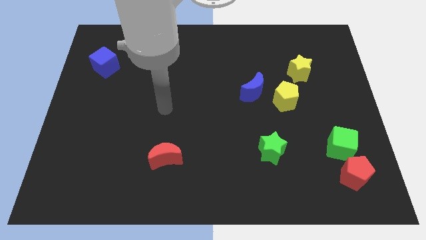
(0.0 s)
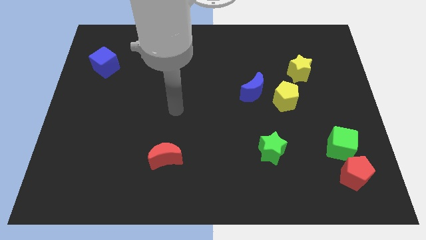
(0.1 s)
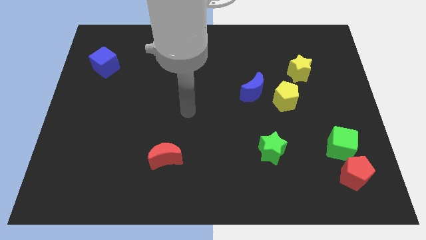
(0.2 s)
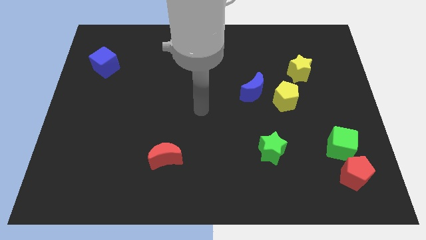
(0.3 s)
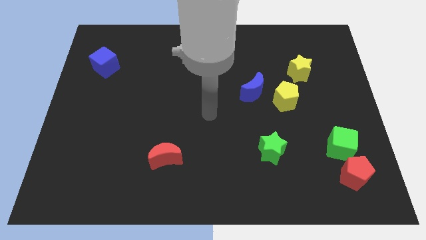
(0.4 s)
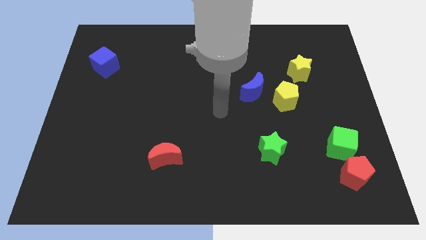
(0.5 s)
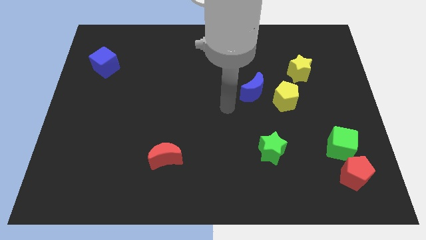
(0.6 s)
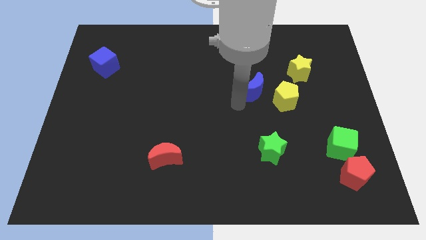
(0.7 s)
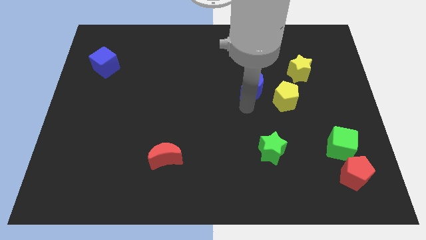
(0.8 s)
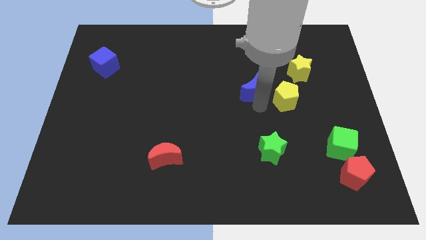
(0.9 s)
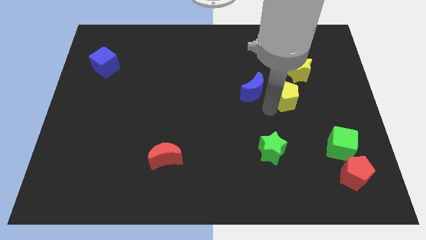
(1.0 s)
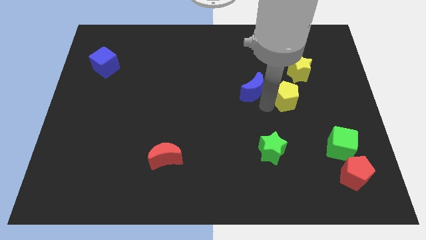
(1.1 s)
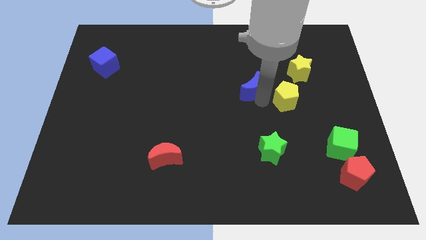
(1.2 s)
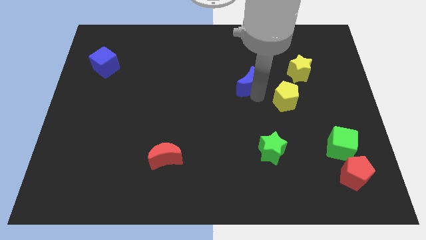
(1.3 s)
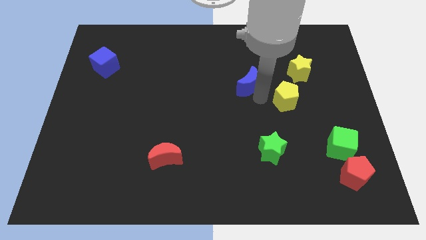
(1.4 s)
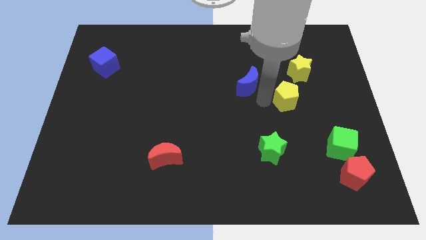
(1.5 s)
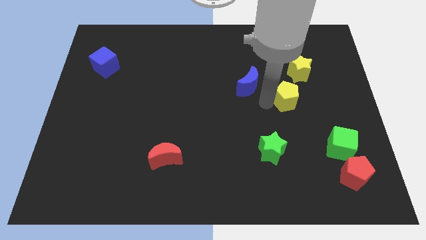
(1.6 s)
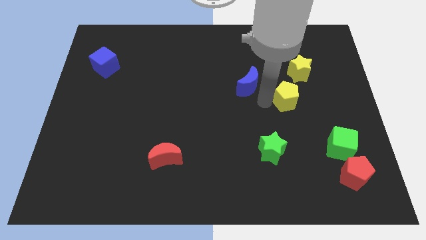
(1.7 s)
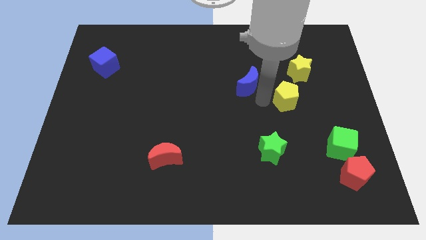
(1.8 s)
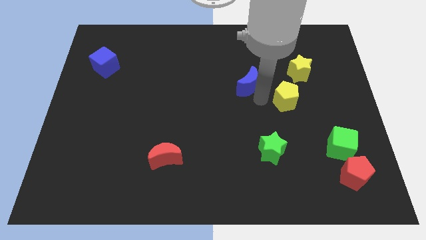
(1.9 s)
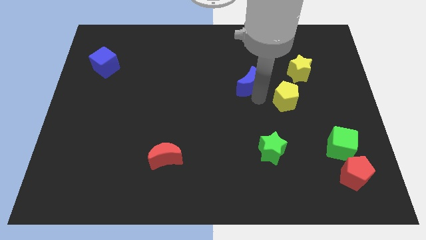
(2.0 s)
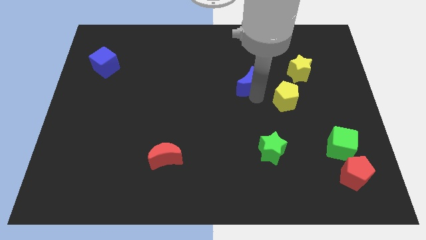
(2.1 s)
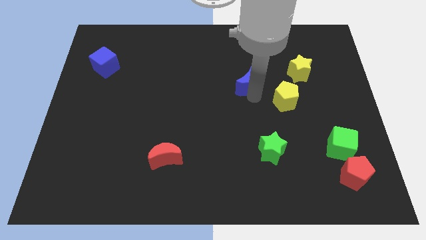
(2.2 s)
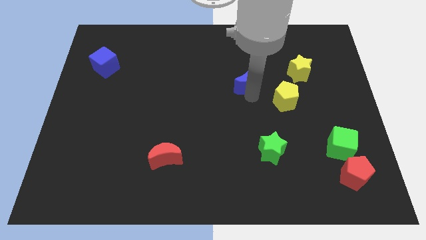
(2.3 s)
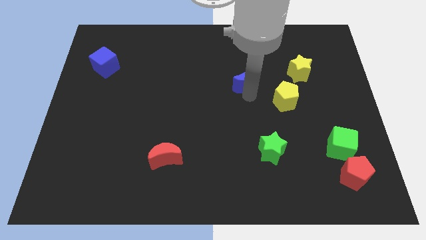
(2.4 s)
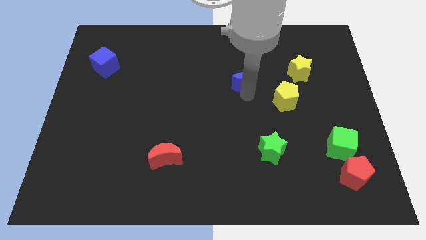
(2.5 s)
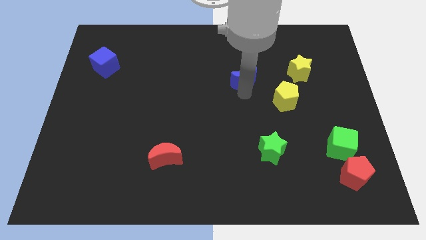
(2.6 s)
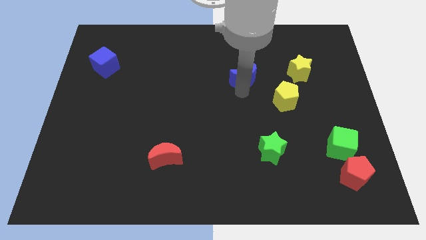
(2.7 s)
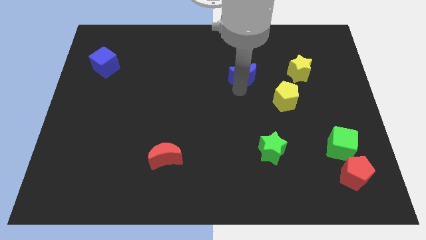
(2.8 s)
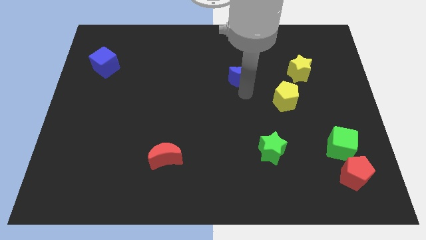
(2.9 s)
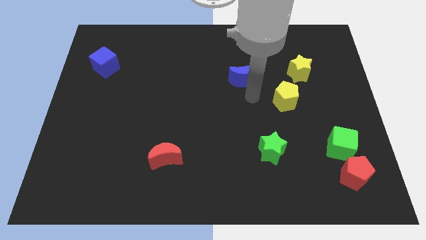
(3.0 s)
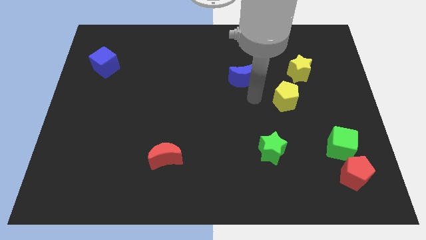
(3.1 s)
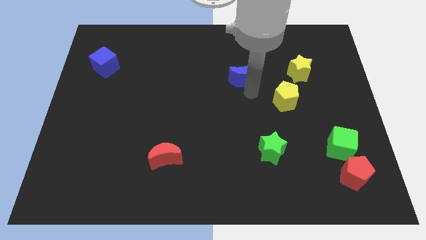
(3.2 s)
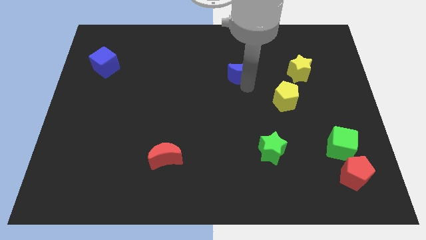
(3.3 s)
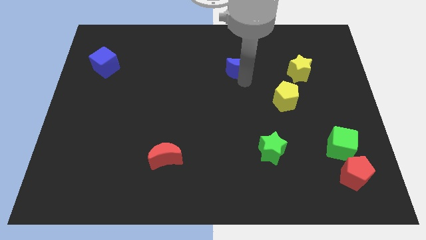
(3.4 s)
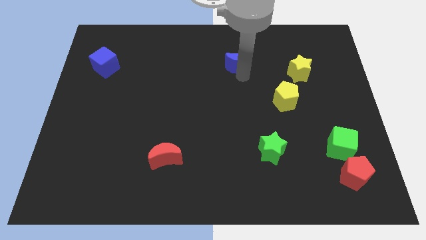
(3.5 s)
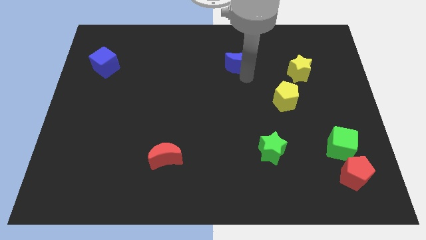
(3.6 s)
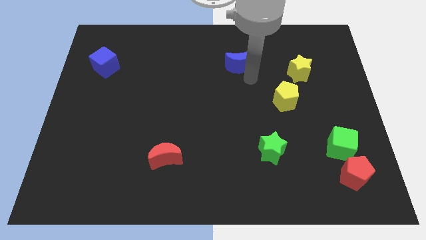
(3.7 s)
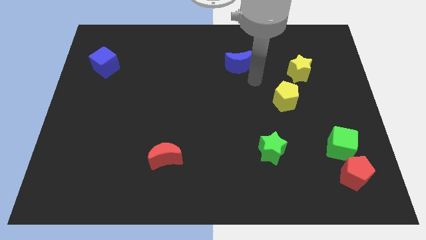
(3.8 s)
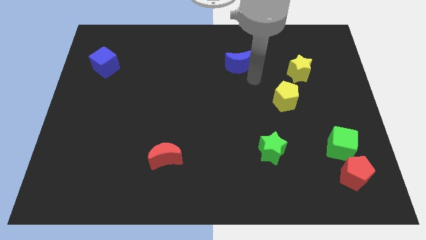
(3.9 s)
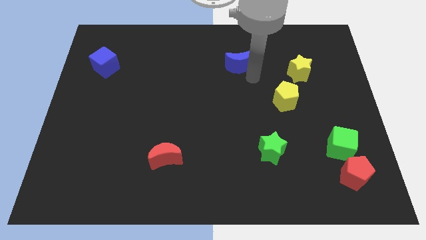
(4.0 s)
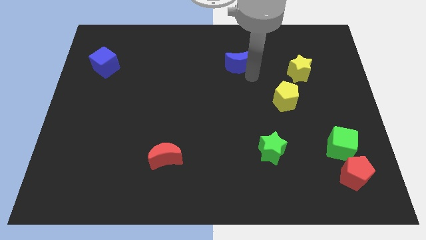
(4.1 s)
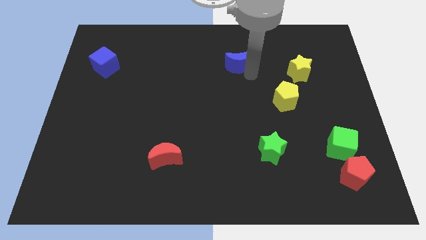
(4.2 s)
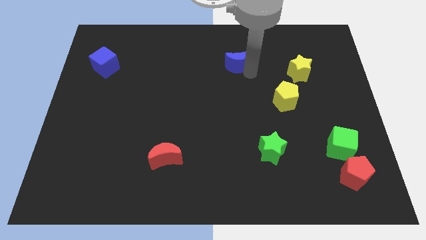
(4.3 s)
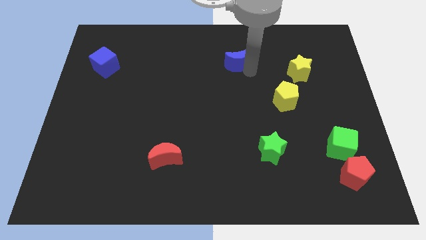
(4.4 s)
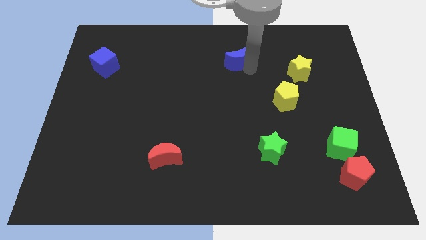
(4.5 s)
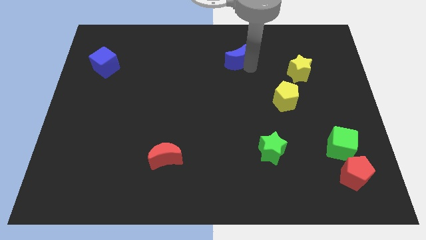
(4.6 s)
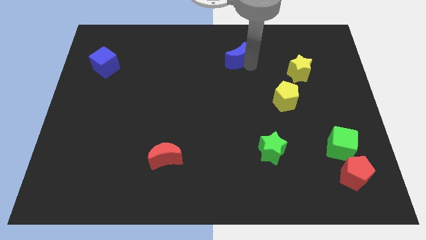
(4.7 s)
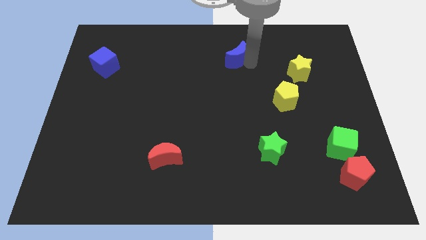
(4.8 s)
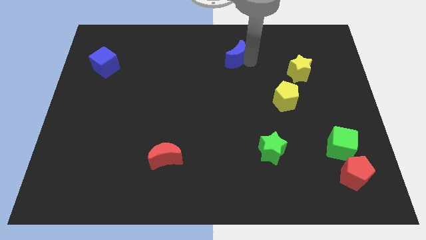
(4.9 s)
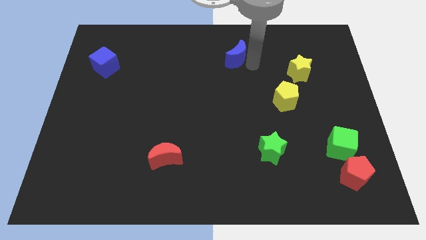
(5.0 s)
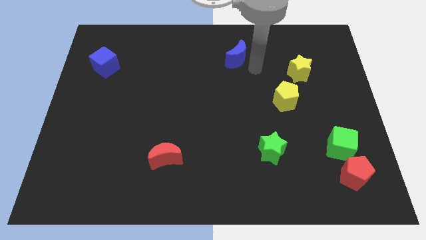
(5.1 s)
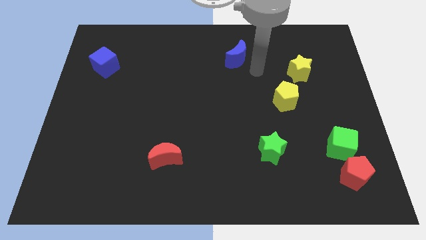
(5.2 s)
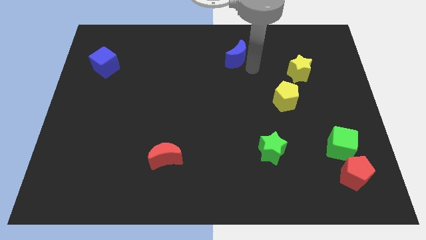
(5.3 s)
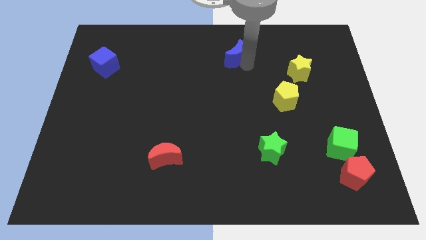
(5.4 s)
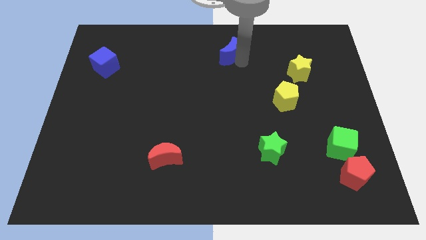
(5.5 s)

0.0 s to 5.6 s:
push the blue moon to the top side
